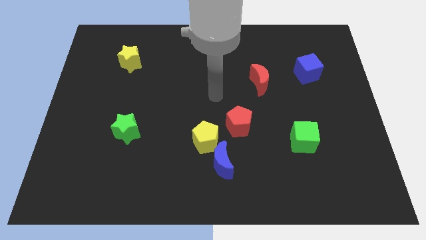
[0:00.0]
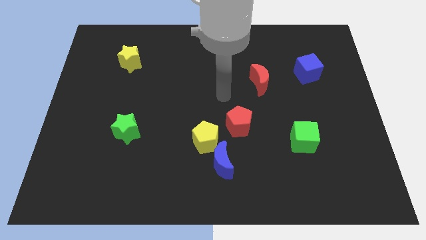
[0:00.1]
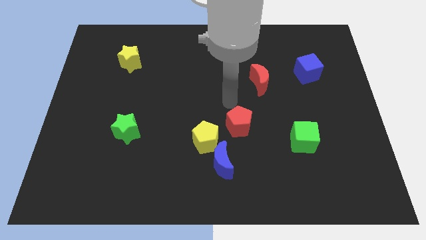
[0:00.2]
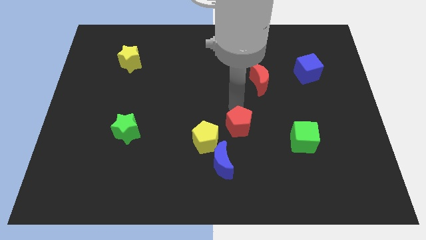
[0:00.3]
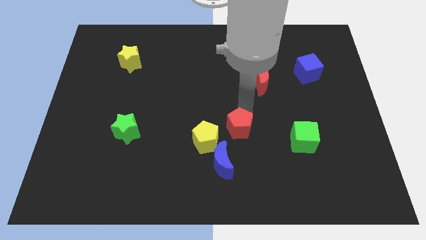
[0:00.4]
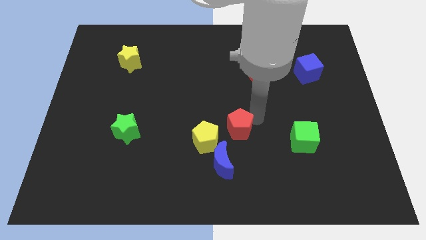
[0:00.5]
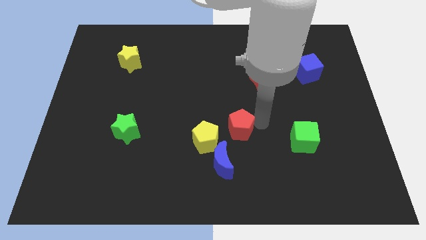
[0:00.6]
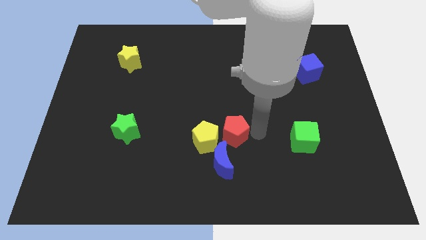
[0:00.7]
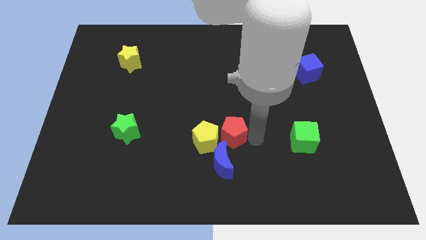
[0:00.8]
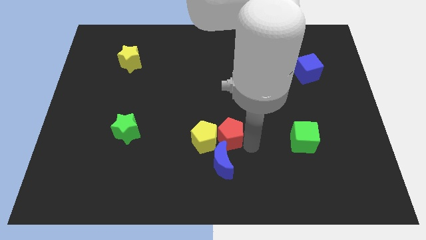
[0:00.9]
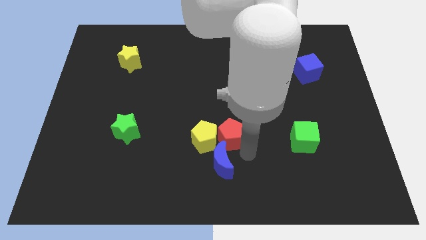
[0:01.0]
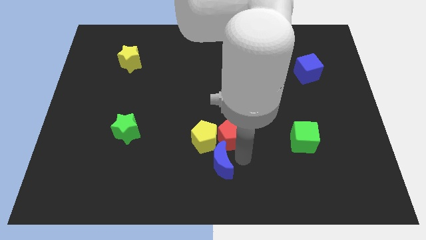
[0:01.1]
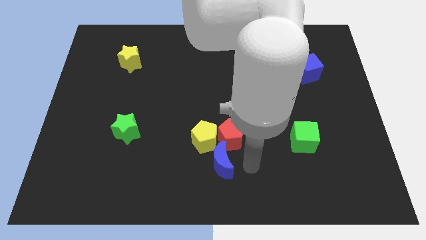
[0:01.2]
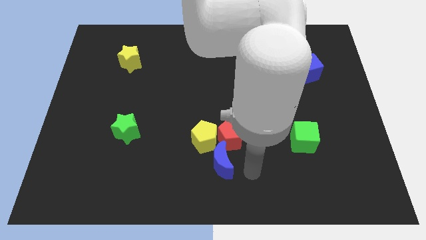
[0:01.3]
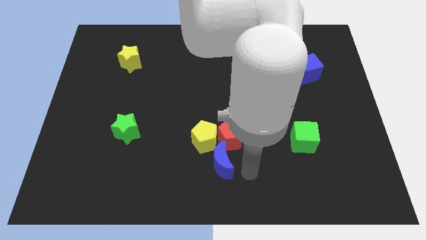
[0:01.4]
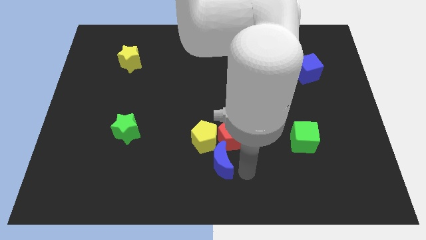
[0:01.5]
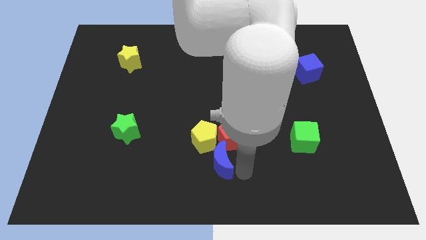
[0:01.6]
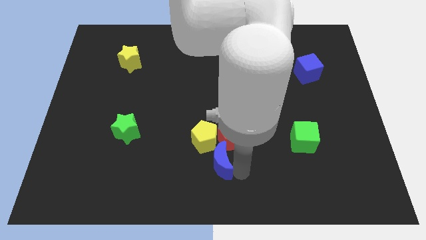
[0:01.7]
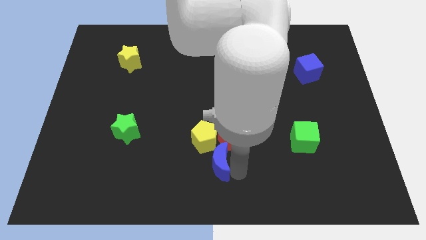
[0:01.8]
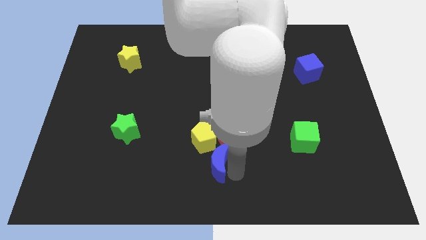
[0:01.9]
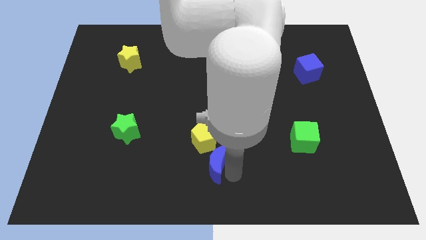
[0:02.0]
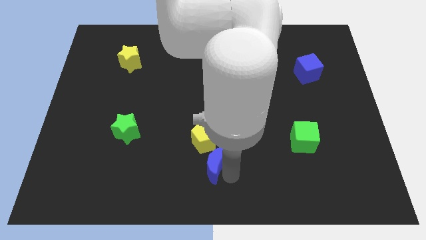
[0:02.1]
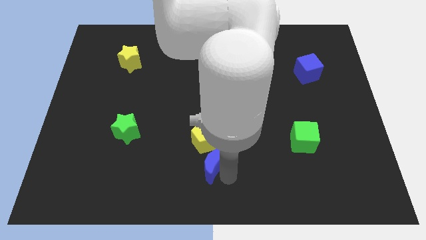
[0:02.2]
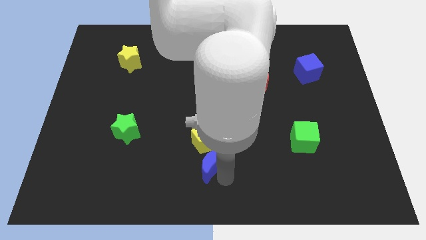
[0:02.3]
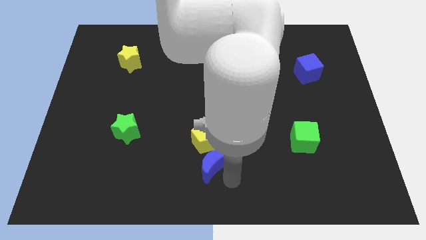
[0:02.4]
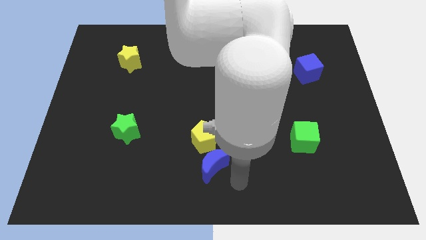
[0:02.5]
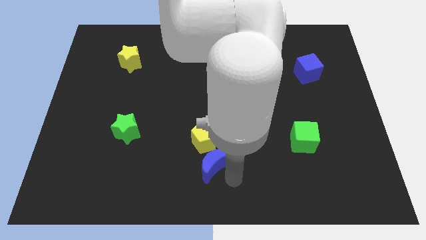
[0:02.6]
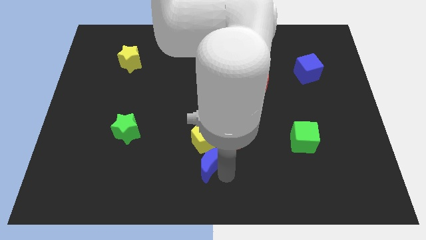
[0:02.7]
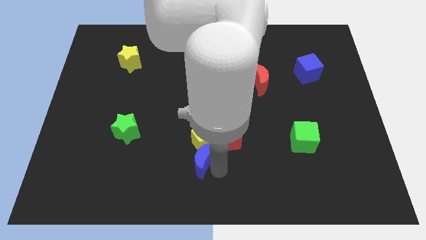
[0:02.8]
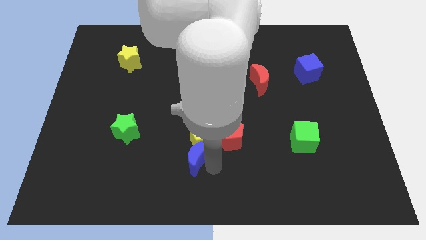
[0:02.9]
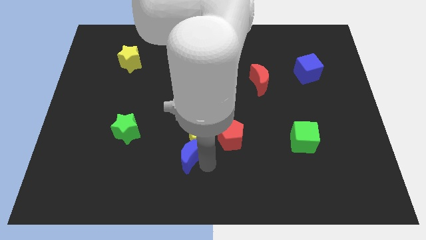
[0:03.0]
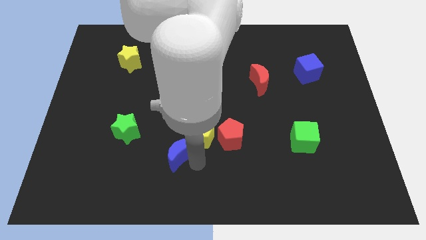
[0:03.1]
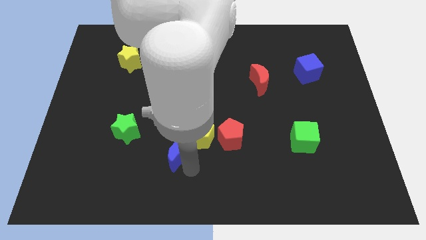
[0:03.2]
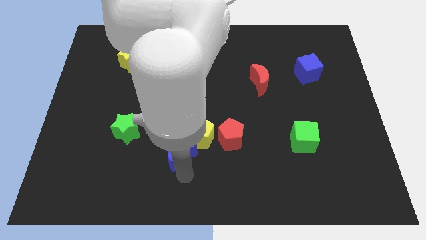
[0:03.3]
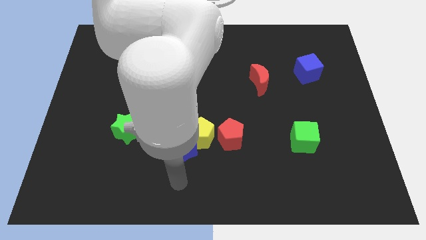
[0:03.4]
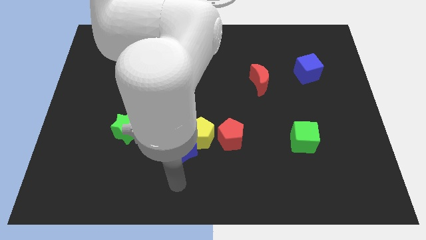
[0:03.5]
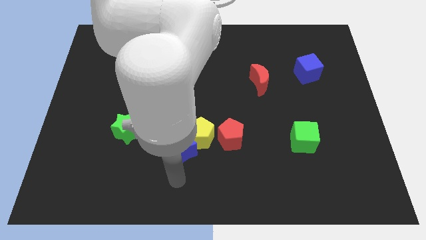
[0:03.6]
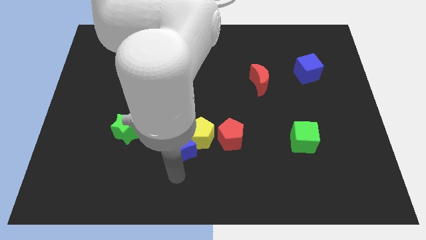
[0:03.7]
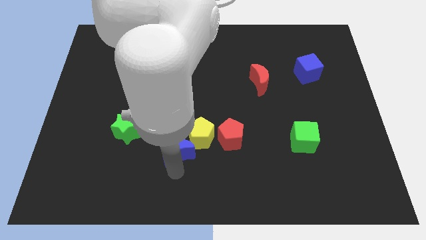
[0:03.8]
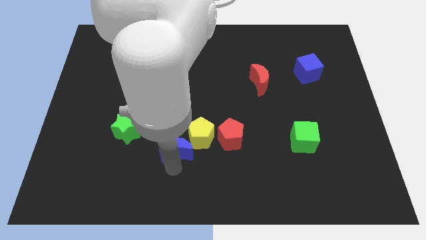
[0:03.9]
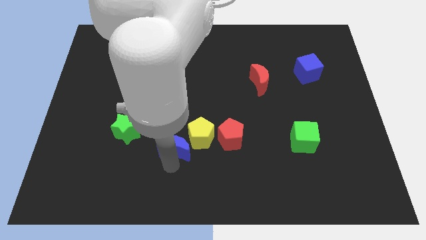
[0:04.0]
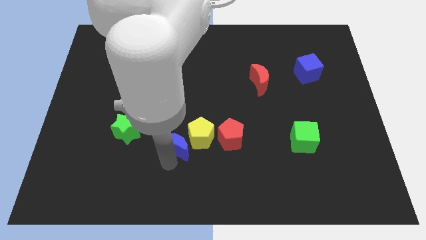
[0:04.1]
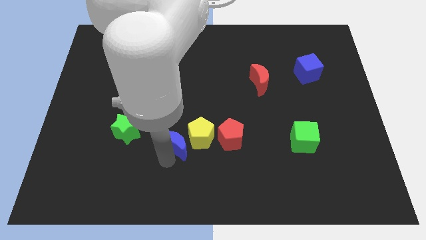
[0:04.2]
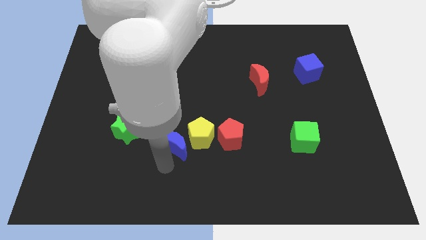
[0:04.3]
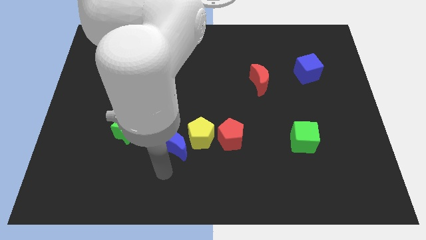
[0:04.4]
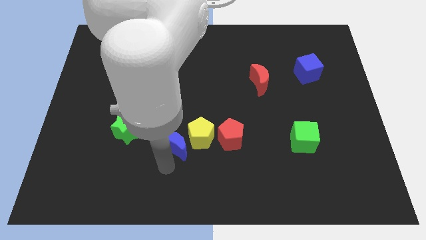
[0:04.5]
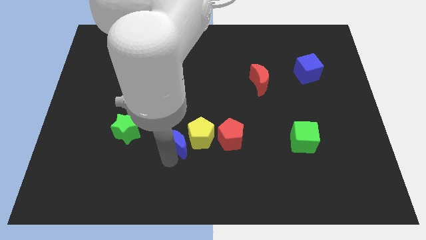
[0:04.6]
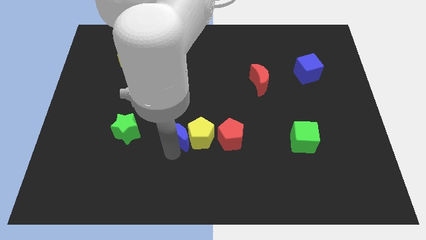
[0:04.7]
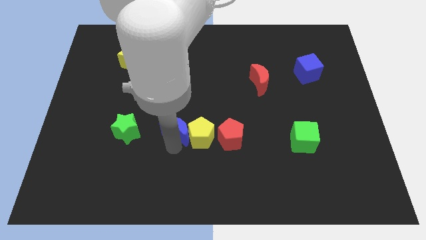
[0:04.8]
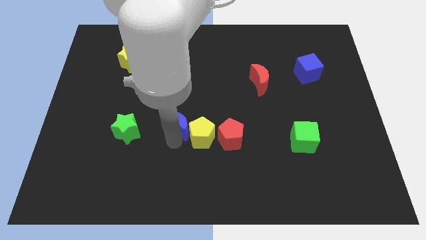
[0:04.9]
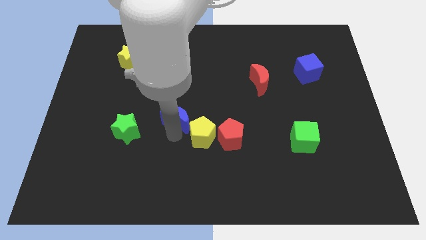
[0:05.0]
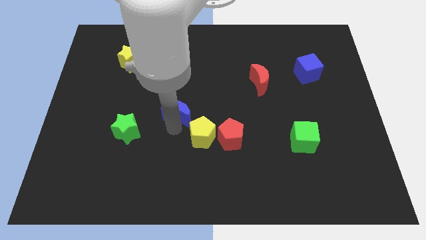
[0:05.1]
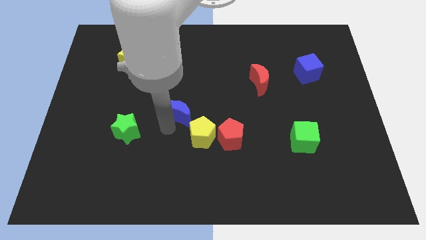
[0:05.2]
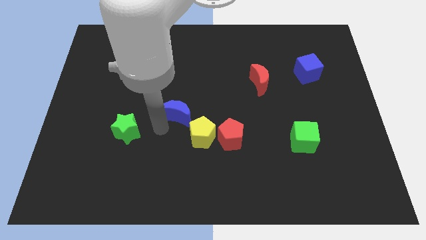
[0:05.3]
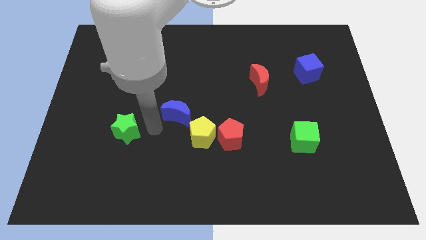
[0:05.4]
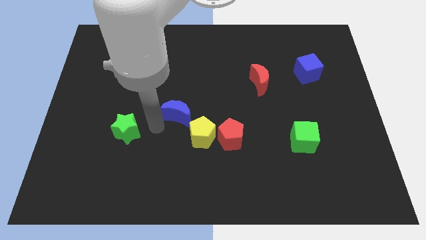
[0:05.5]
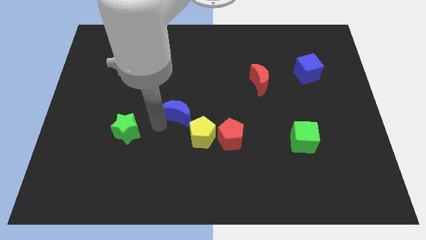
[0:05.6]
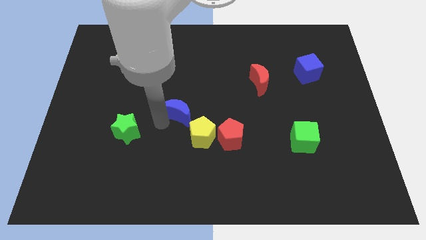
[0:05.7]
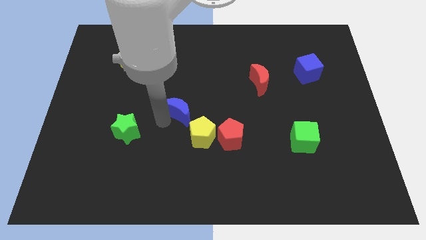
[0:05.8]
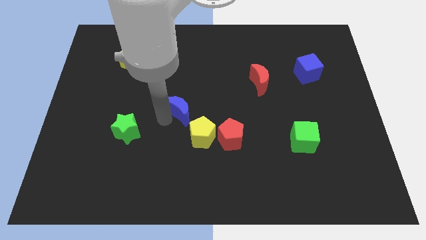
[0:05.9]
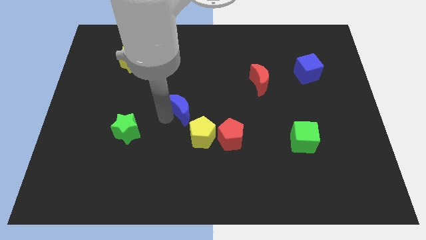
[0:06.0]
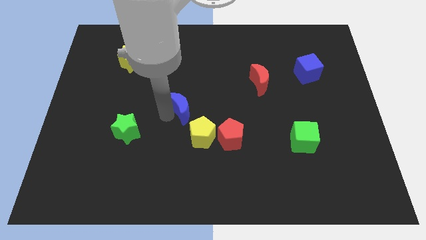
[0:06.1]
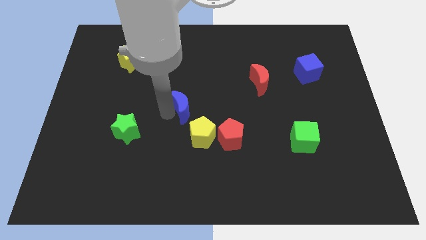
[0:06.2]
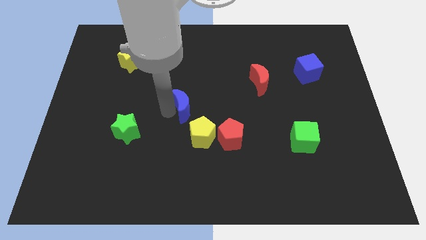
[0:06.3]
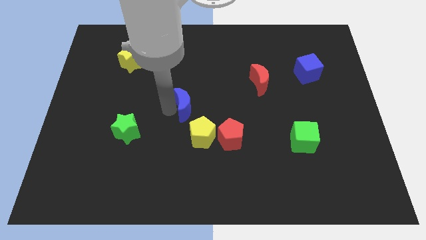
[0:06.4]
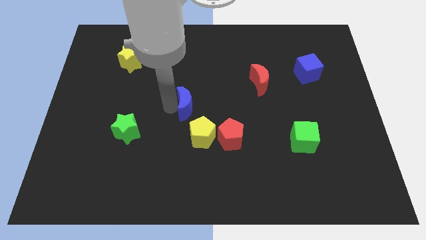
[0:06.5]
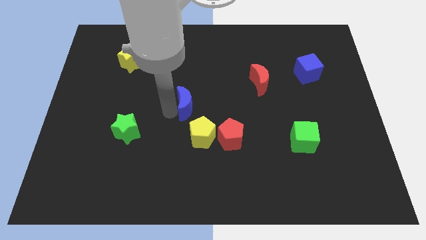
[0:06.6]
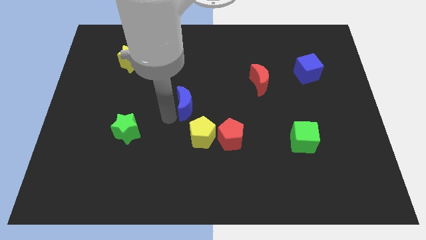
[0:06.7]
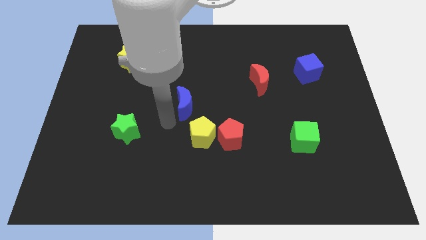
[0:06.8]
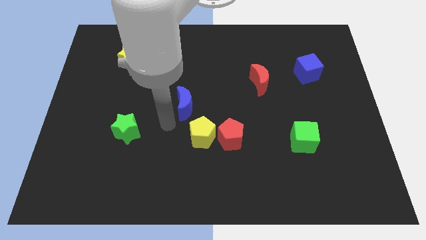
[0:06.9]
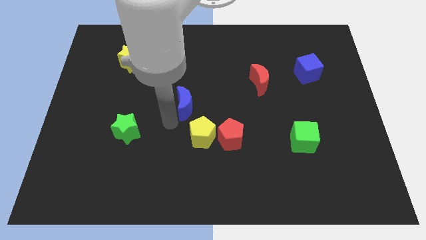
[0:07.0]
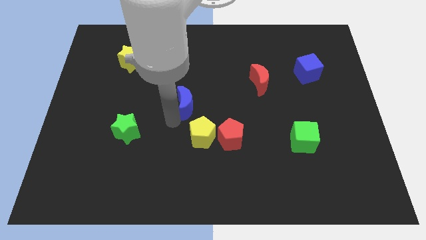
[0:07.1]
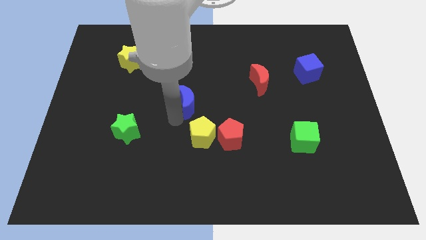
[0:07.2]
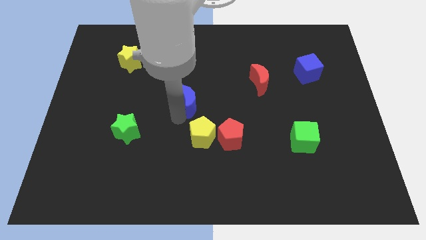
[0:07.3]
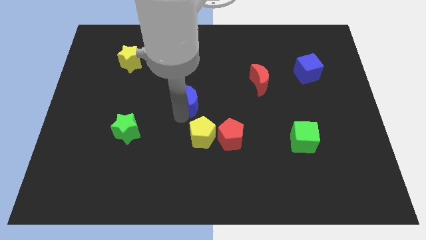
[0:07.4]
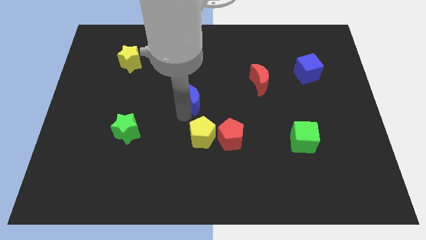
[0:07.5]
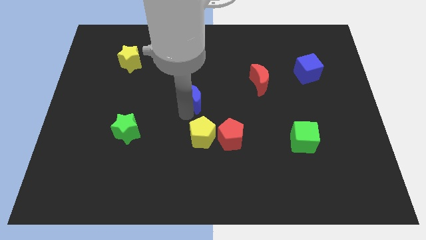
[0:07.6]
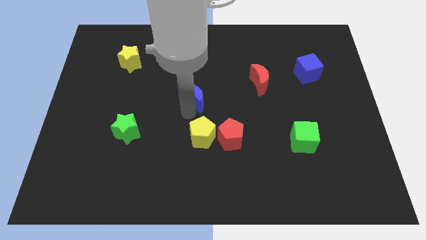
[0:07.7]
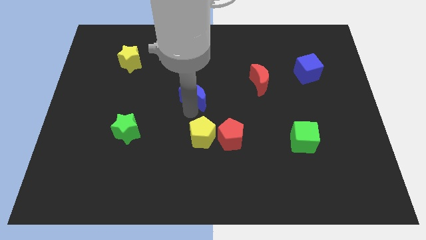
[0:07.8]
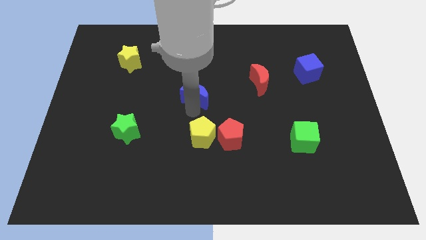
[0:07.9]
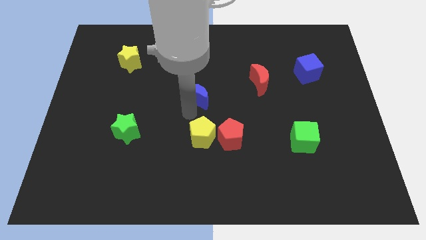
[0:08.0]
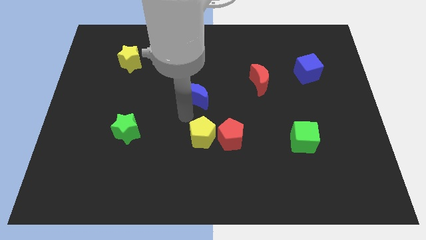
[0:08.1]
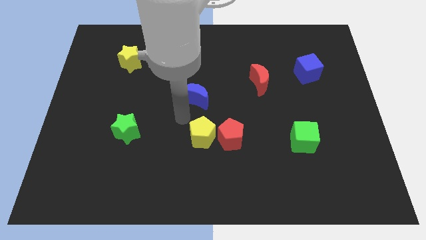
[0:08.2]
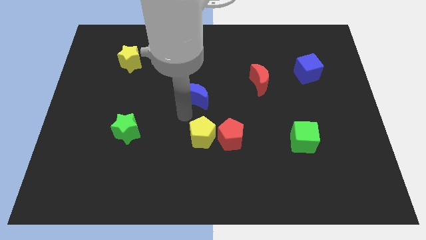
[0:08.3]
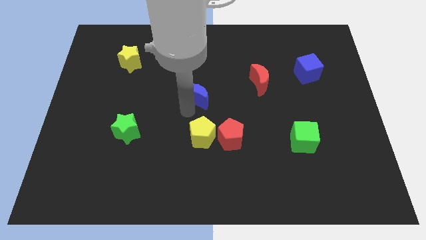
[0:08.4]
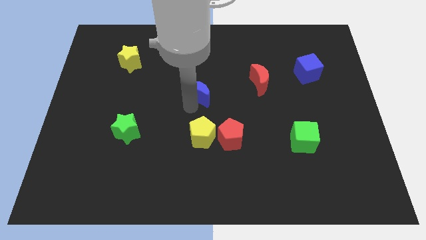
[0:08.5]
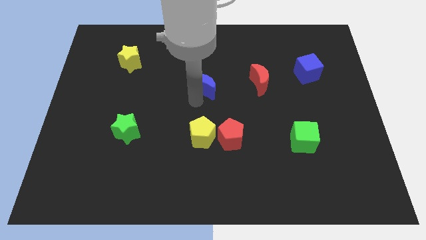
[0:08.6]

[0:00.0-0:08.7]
move the blue moon up
